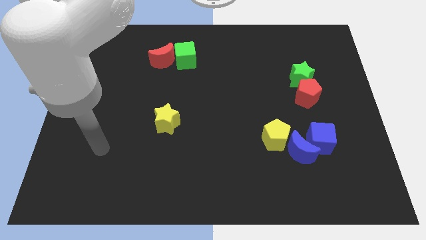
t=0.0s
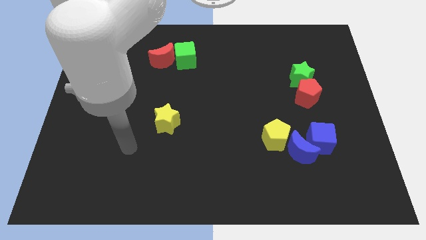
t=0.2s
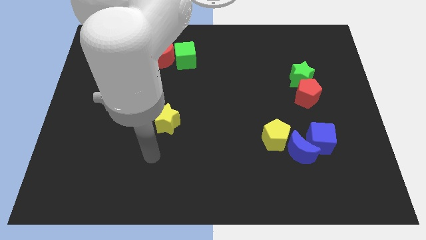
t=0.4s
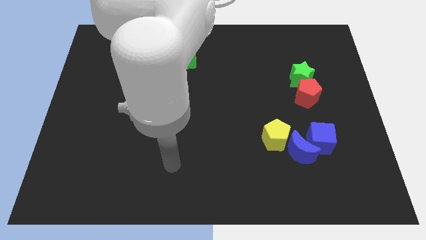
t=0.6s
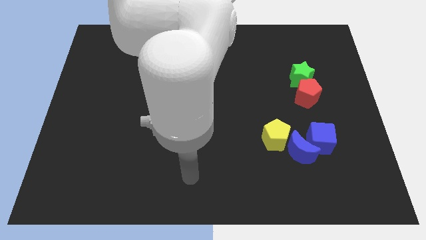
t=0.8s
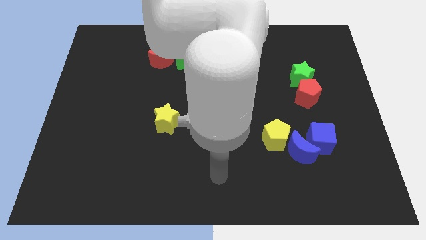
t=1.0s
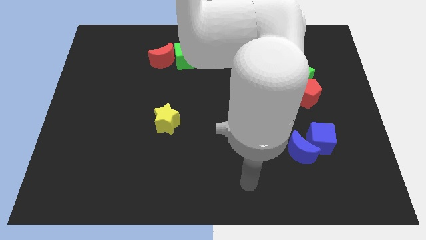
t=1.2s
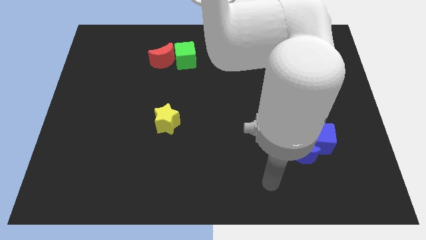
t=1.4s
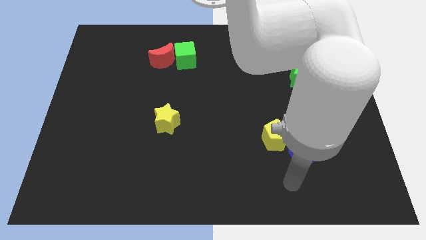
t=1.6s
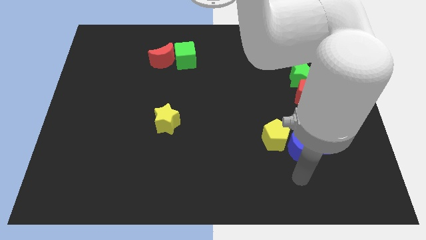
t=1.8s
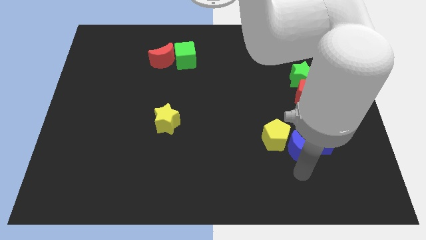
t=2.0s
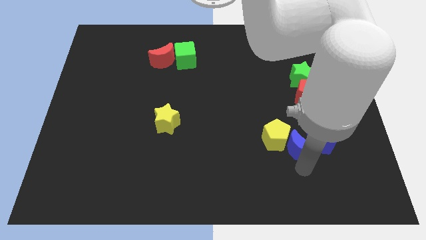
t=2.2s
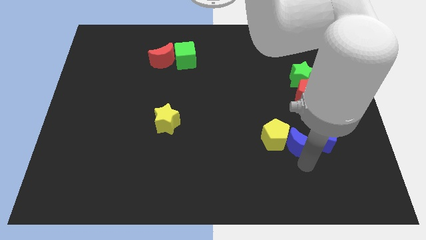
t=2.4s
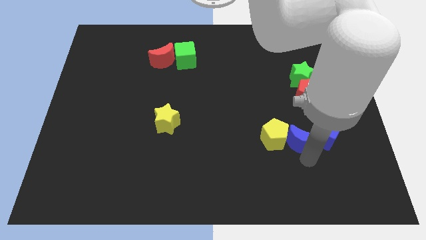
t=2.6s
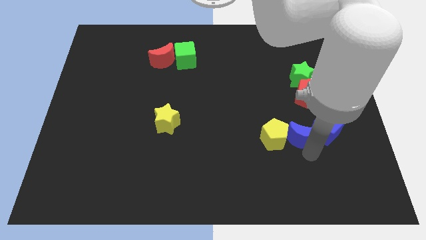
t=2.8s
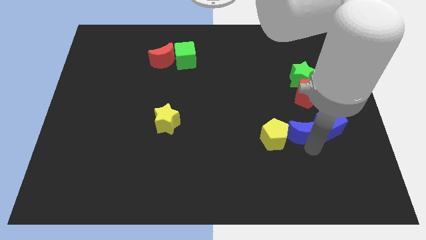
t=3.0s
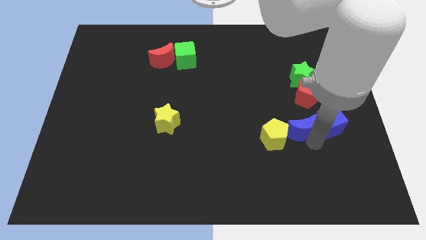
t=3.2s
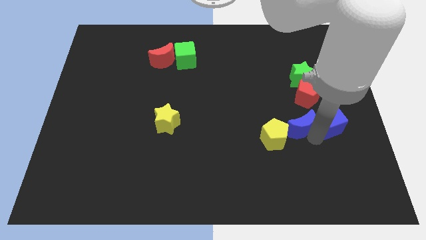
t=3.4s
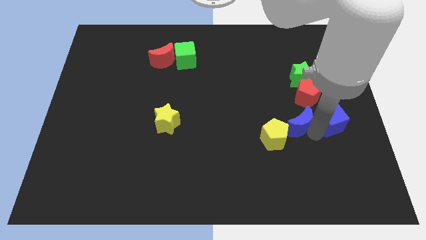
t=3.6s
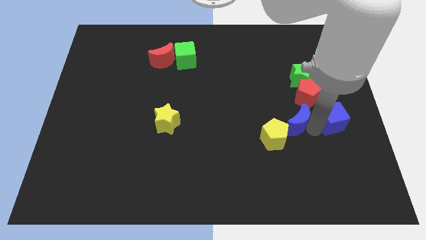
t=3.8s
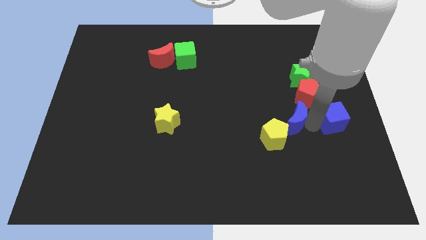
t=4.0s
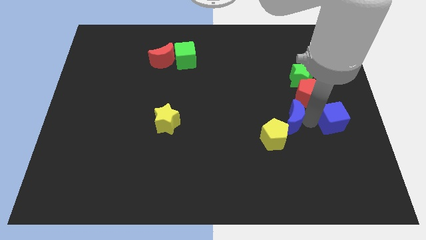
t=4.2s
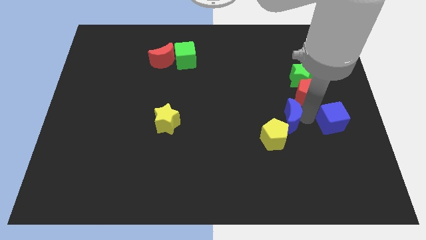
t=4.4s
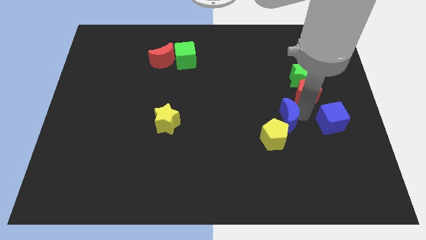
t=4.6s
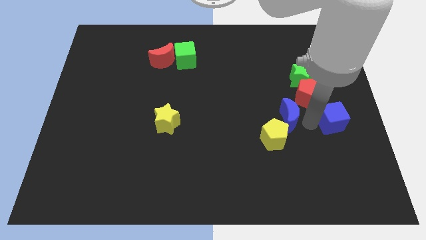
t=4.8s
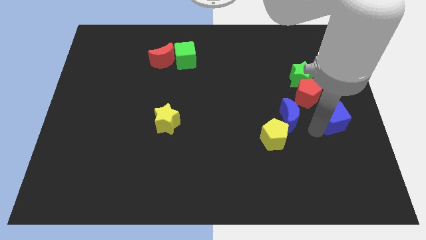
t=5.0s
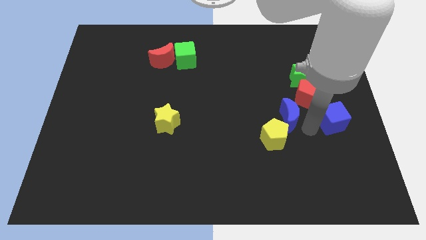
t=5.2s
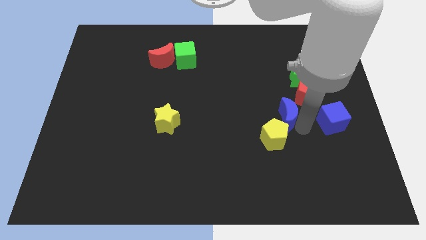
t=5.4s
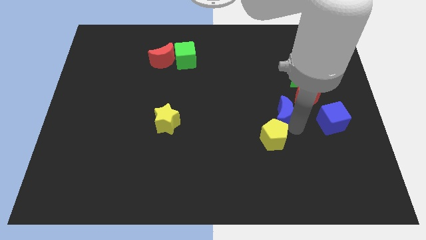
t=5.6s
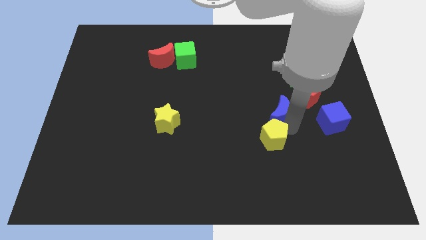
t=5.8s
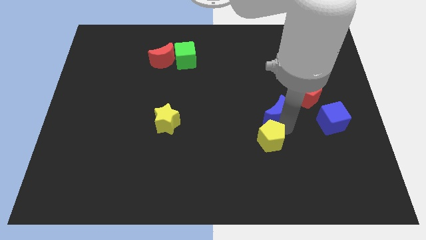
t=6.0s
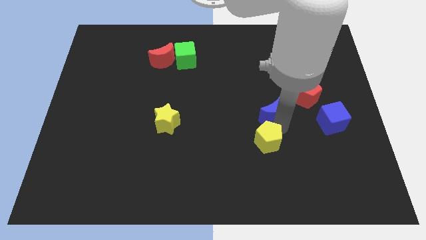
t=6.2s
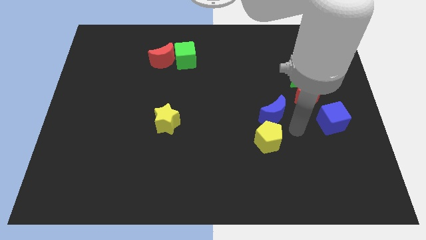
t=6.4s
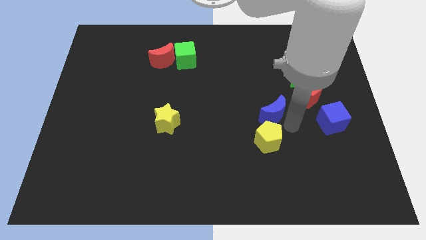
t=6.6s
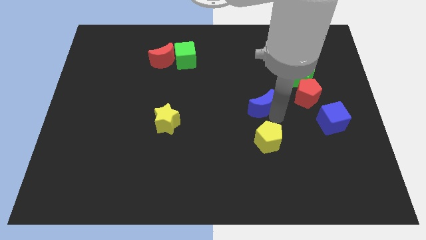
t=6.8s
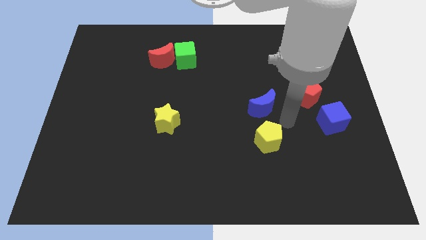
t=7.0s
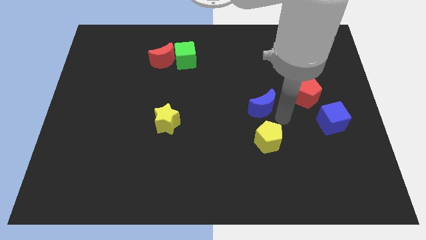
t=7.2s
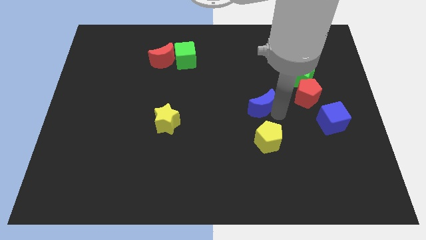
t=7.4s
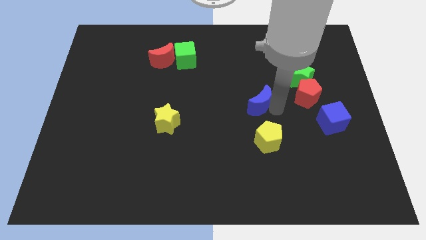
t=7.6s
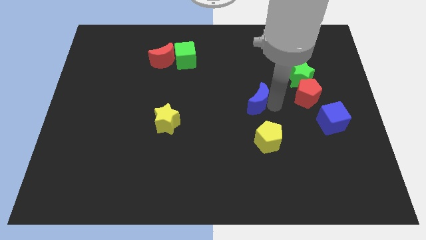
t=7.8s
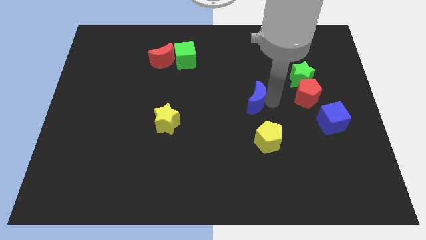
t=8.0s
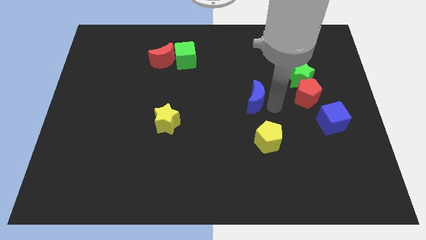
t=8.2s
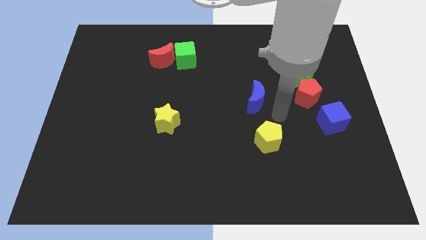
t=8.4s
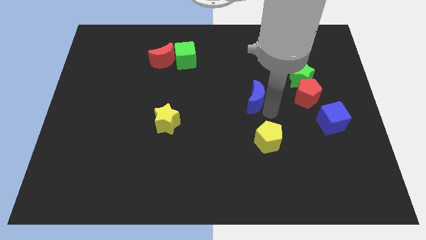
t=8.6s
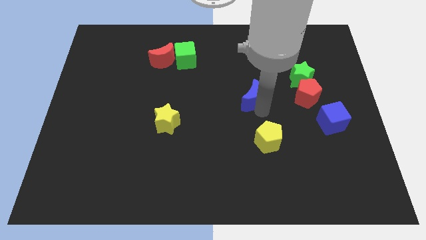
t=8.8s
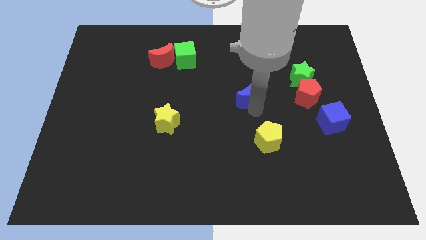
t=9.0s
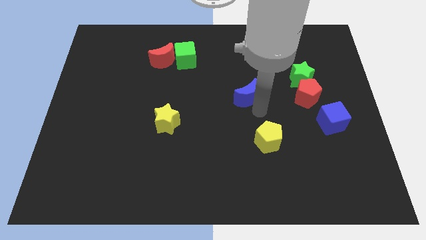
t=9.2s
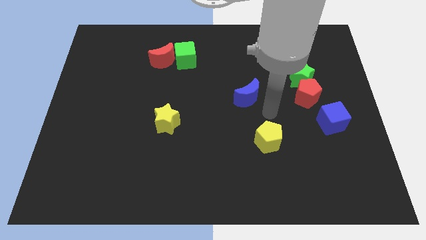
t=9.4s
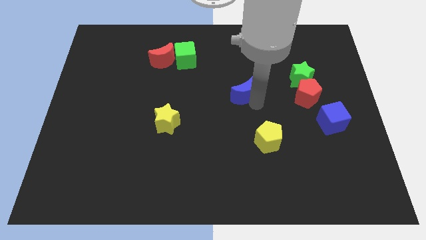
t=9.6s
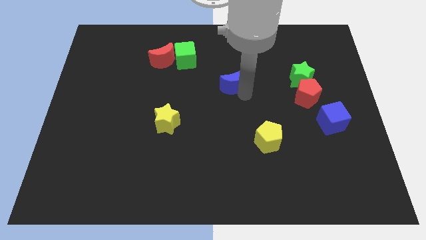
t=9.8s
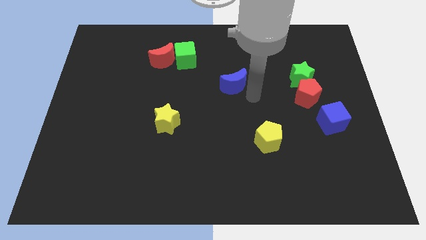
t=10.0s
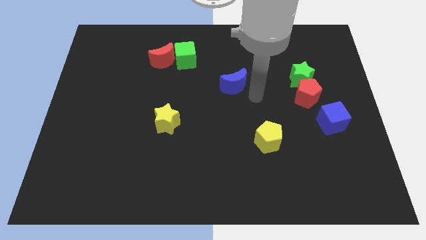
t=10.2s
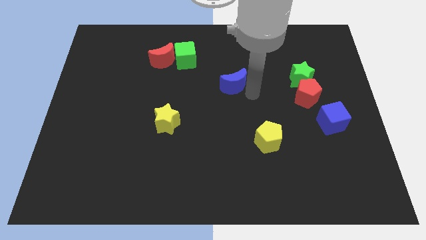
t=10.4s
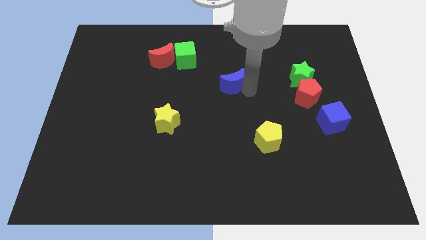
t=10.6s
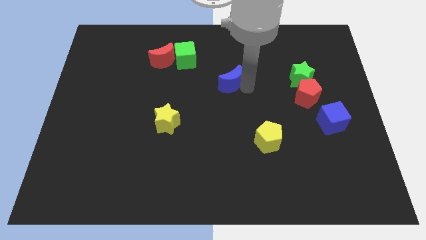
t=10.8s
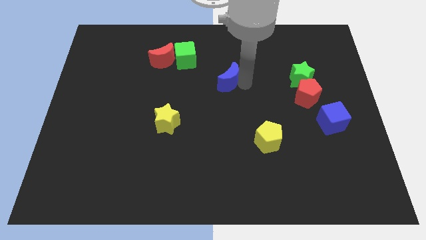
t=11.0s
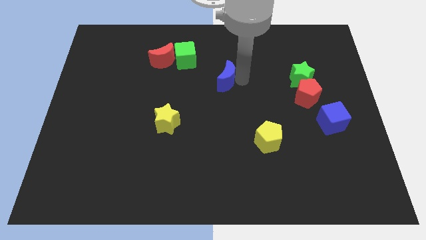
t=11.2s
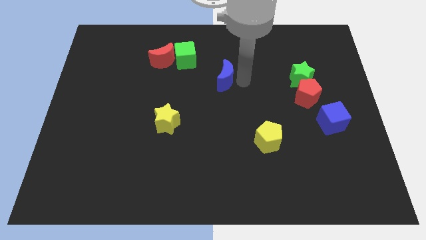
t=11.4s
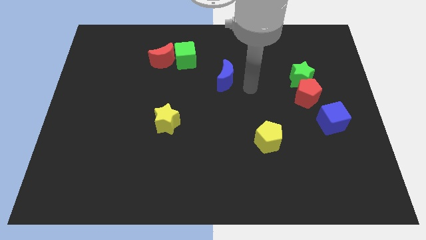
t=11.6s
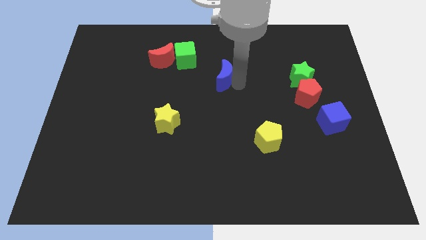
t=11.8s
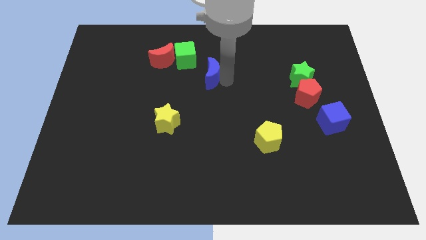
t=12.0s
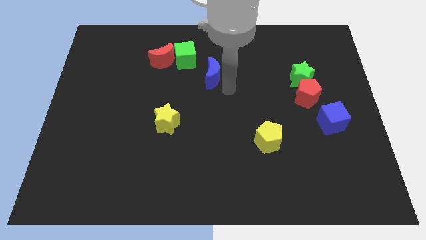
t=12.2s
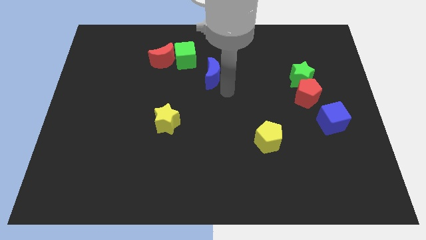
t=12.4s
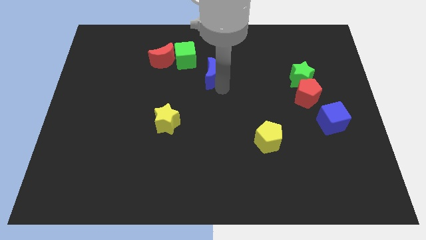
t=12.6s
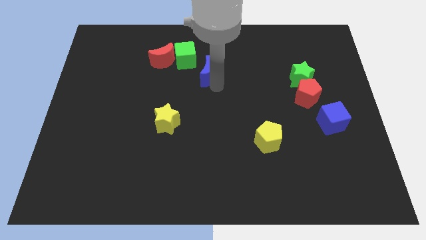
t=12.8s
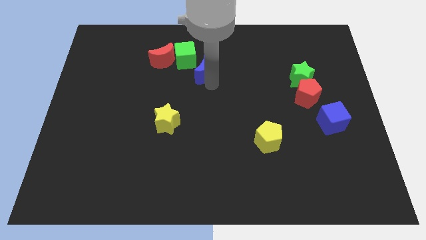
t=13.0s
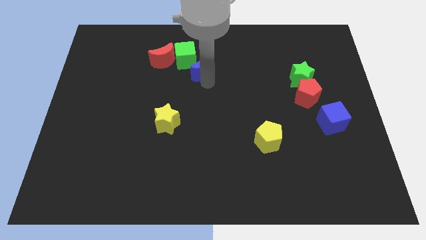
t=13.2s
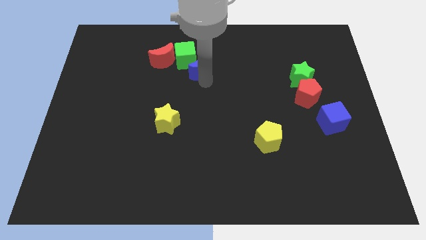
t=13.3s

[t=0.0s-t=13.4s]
slide the blue moon close to the green cube

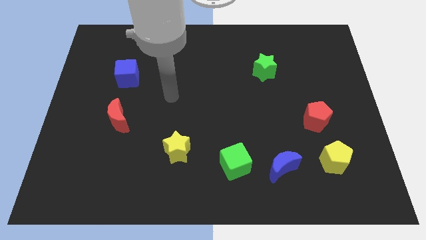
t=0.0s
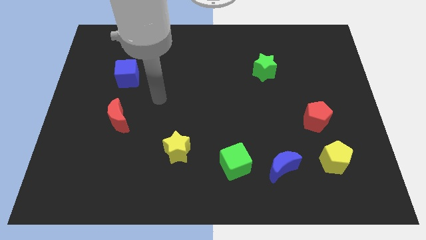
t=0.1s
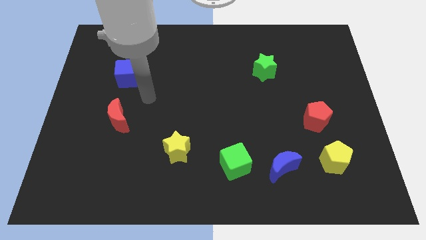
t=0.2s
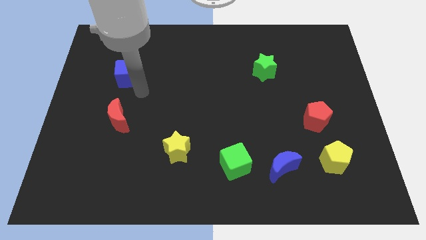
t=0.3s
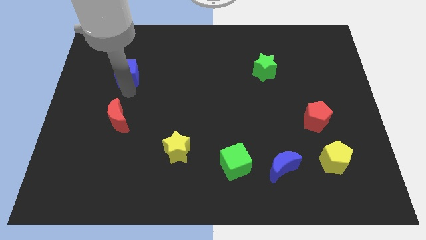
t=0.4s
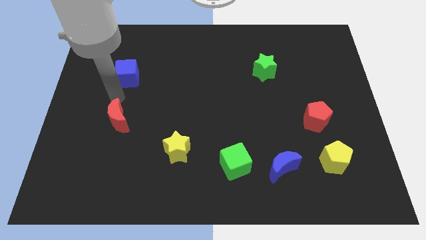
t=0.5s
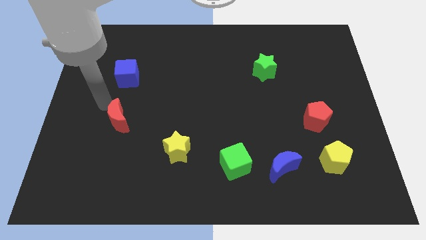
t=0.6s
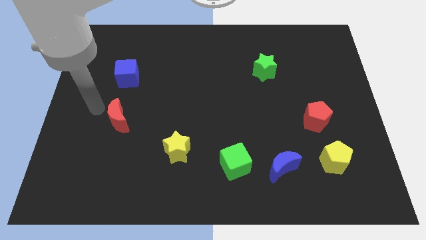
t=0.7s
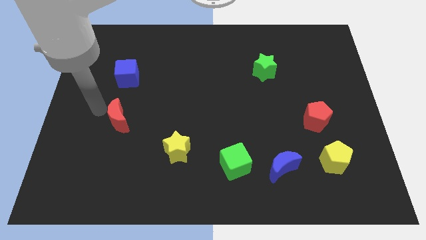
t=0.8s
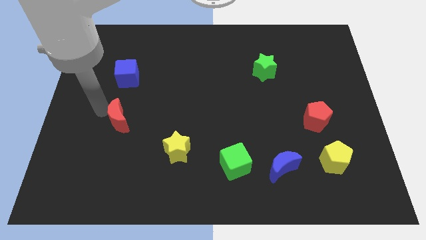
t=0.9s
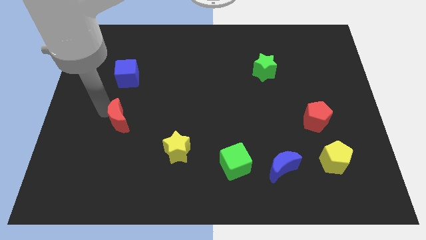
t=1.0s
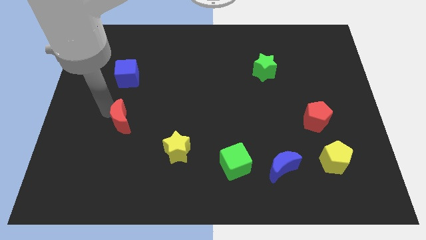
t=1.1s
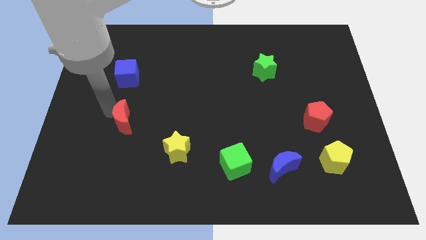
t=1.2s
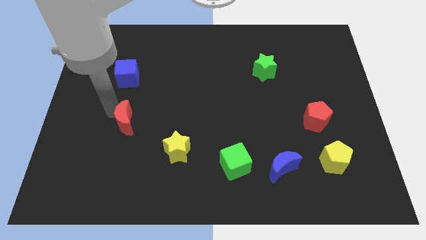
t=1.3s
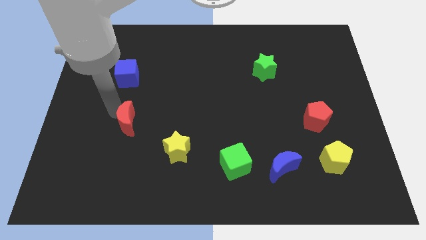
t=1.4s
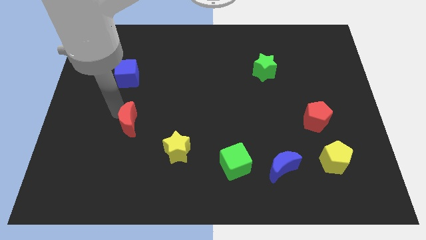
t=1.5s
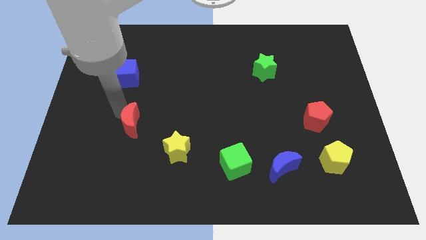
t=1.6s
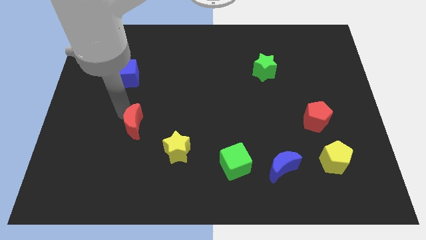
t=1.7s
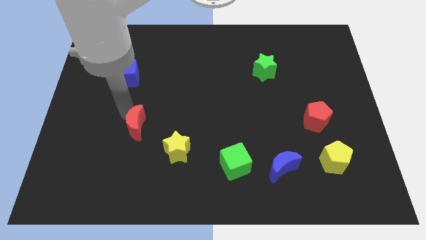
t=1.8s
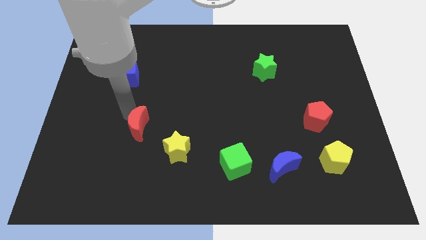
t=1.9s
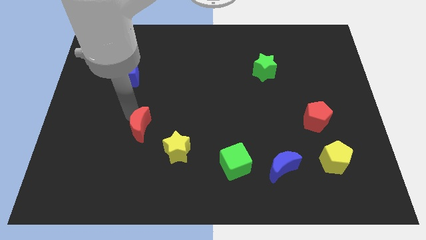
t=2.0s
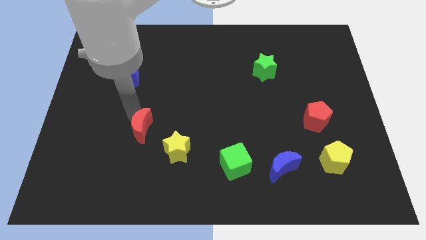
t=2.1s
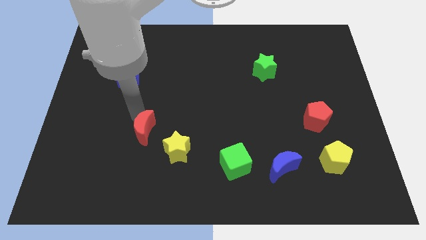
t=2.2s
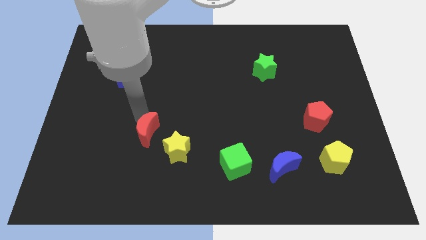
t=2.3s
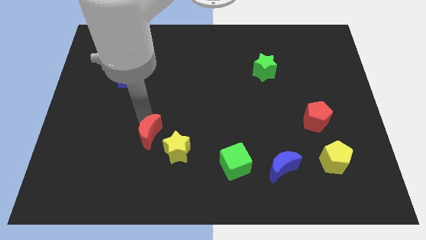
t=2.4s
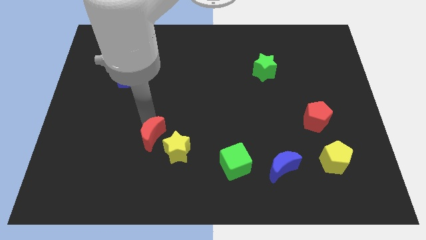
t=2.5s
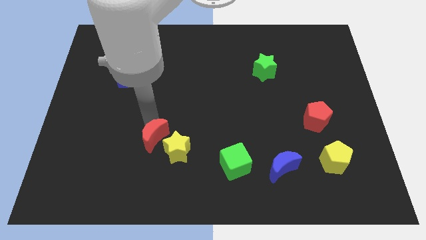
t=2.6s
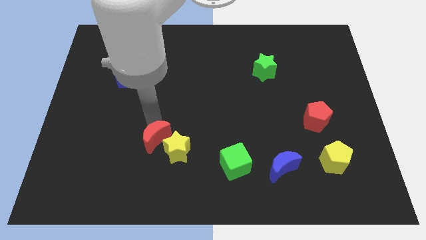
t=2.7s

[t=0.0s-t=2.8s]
put the red moon next to the yellow star
